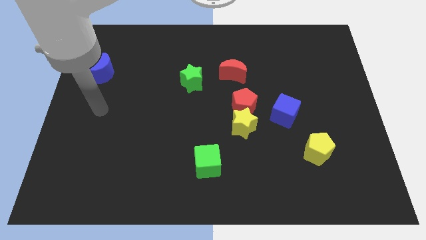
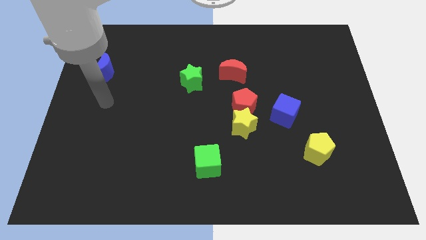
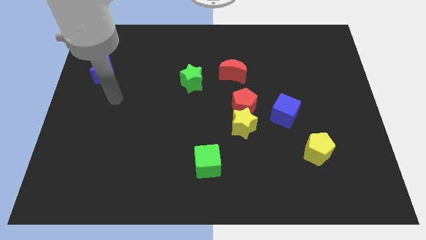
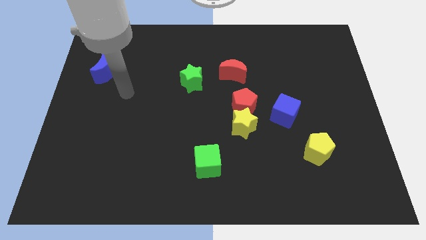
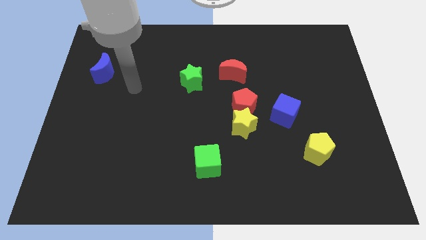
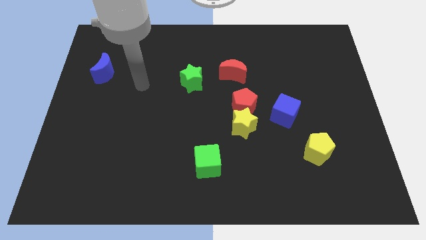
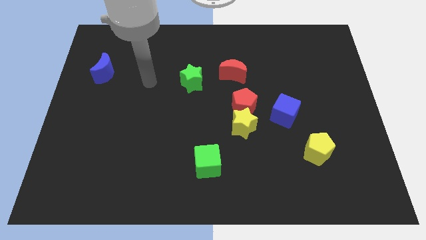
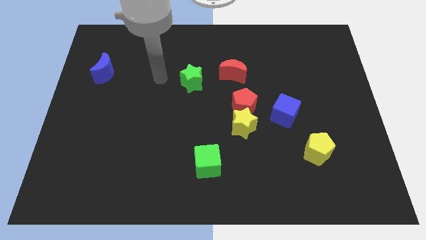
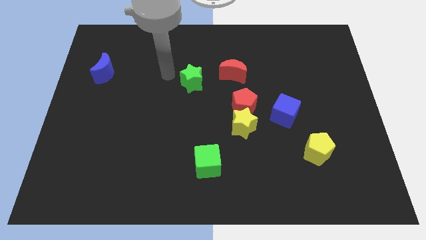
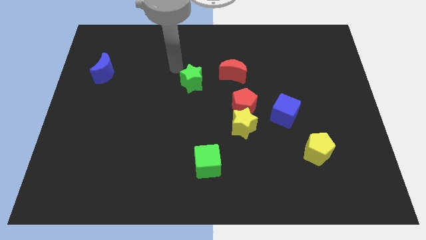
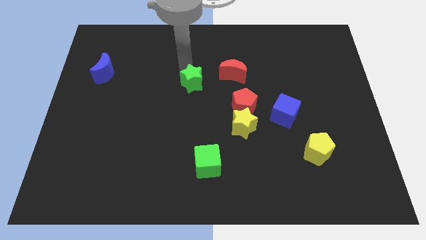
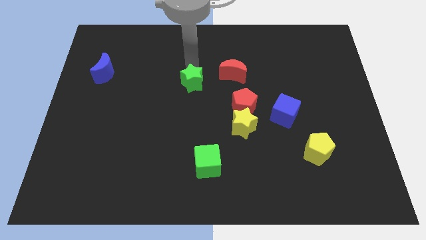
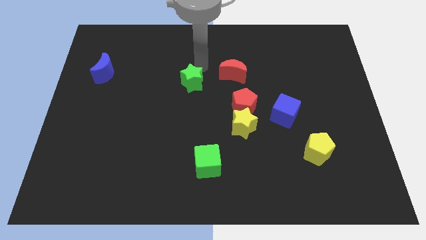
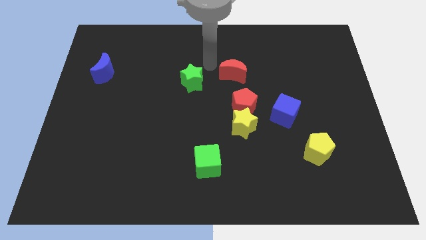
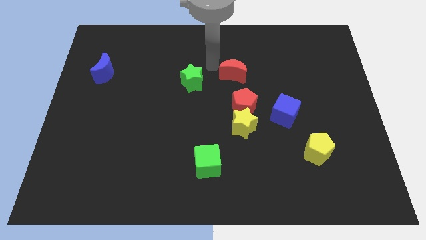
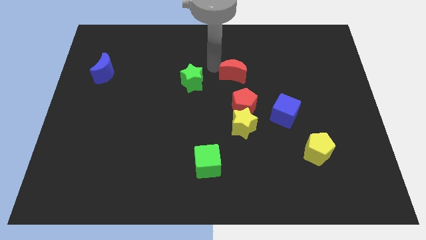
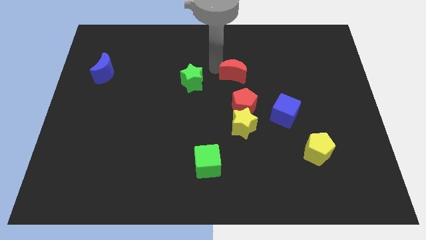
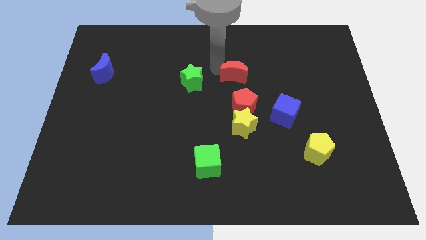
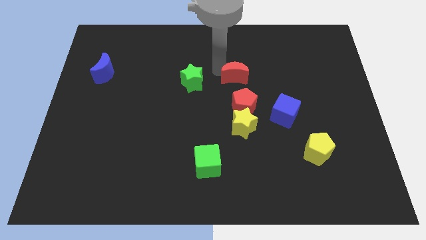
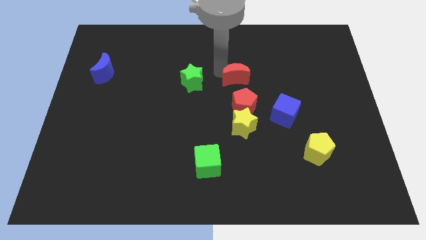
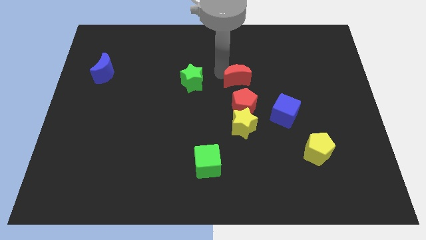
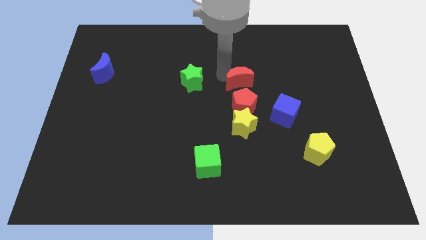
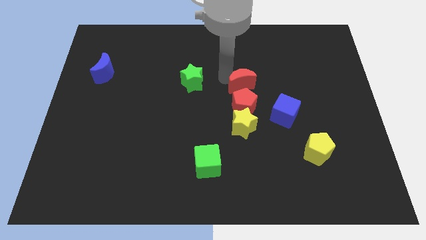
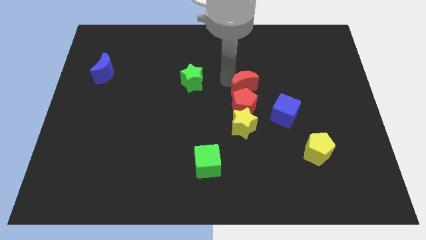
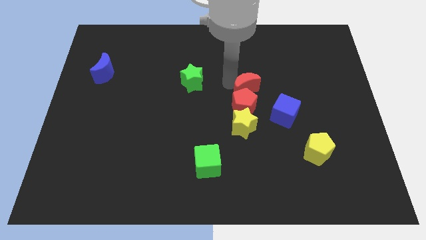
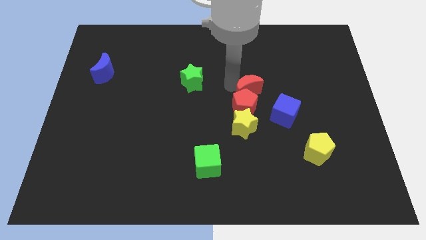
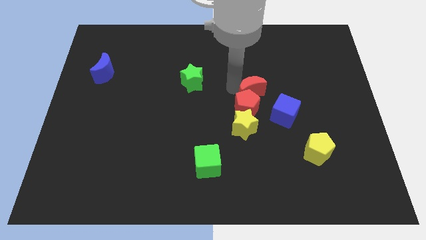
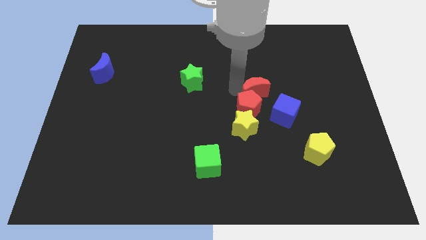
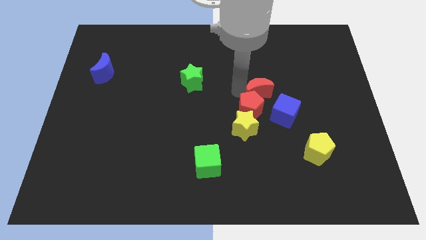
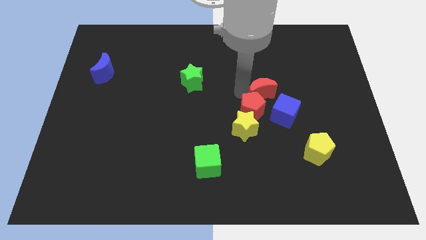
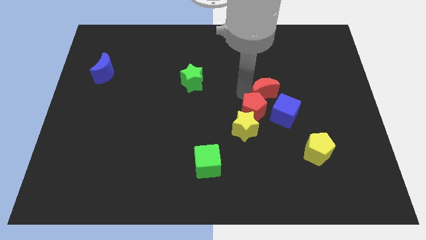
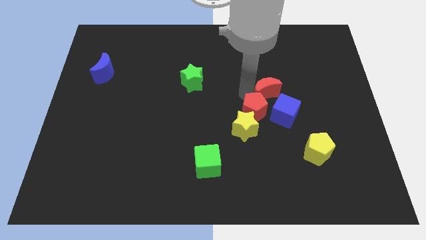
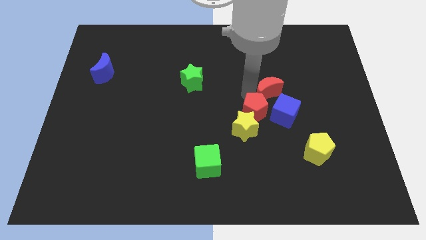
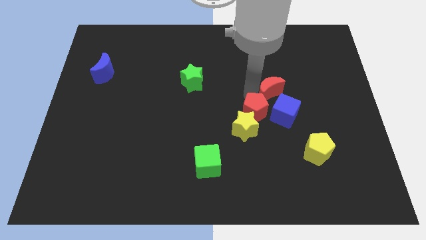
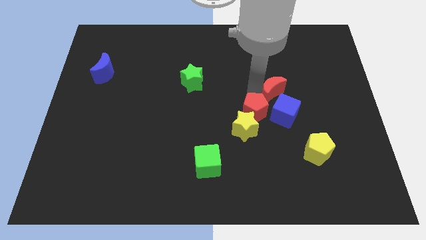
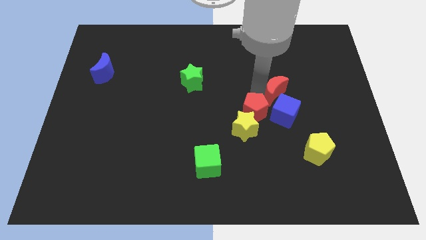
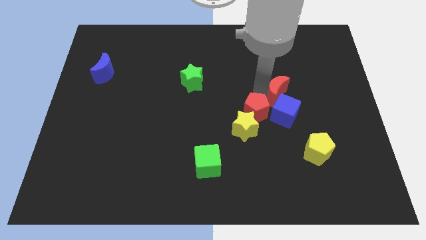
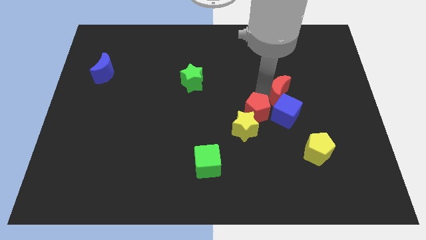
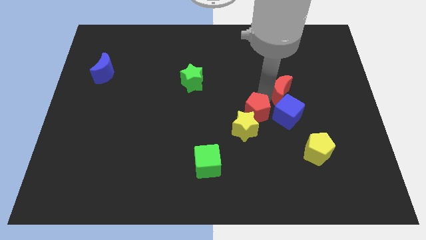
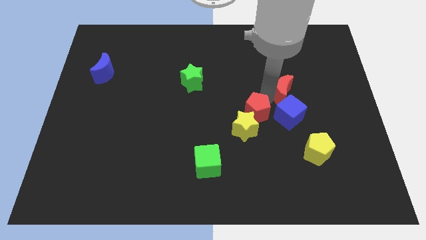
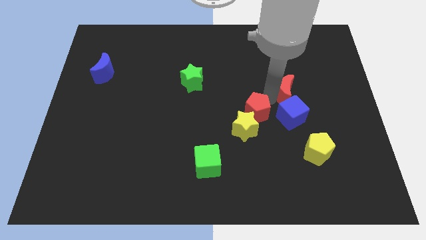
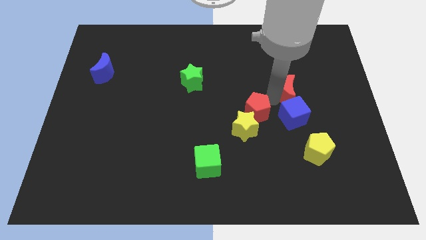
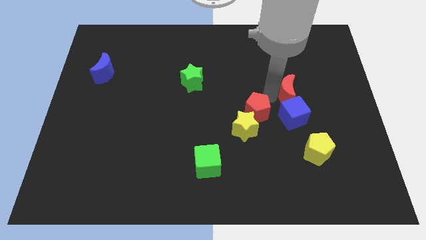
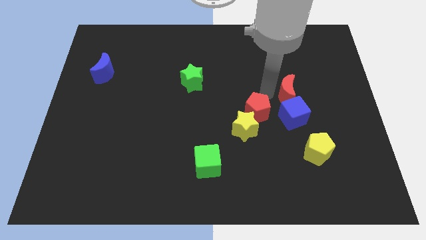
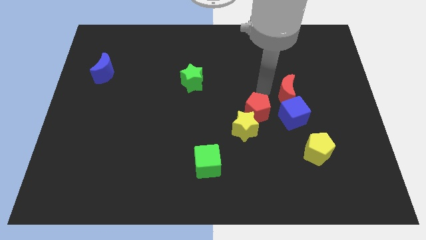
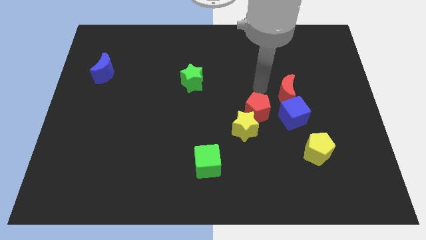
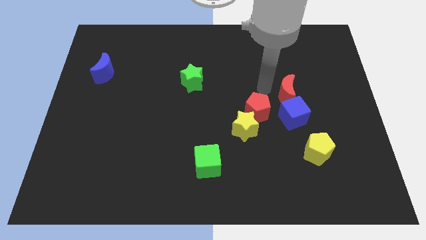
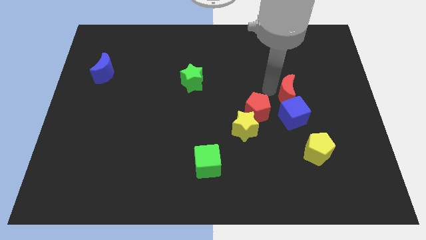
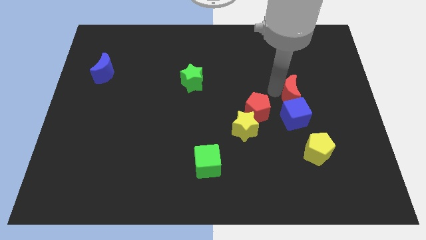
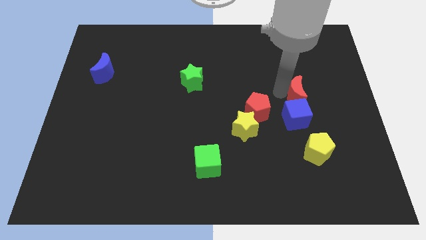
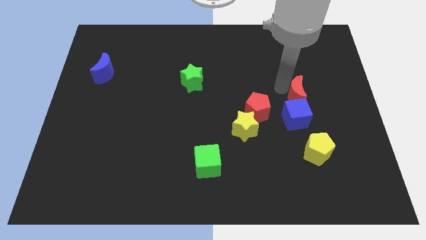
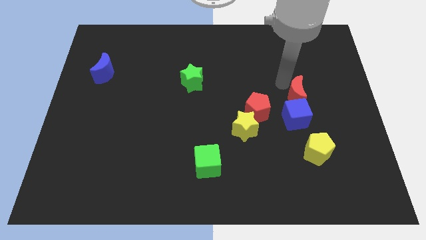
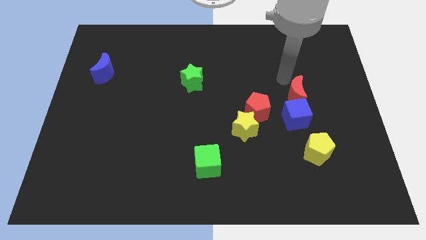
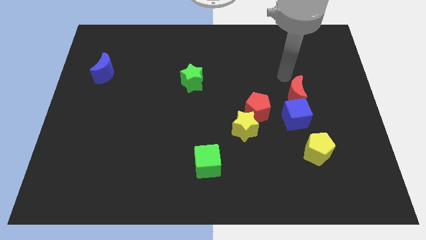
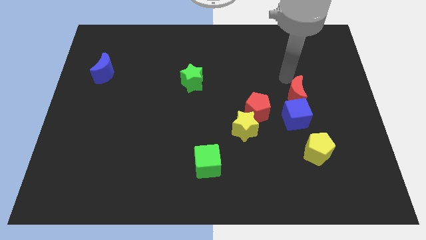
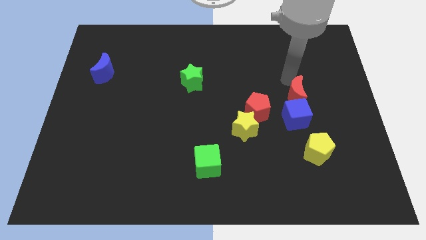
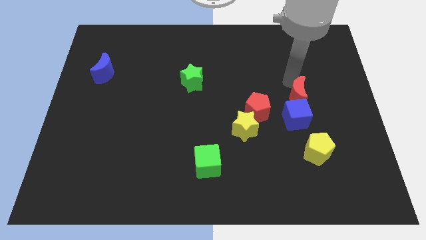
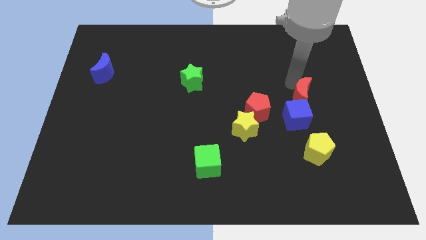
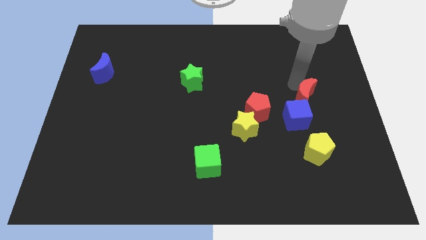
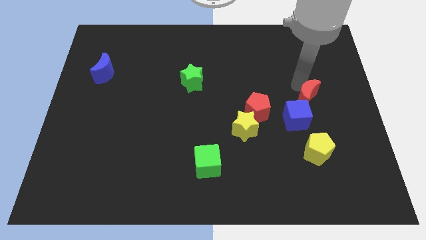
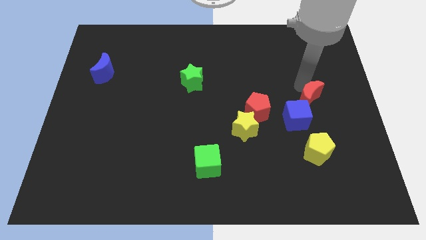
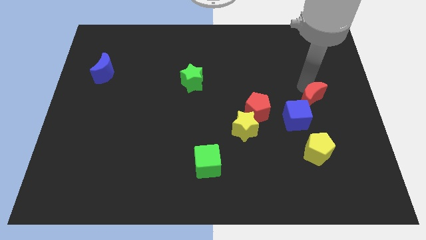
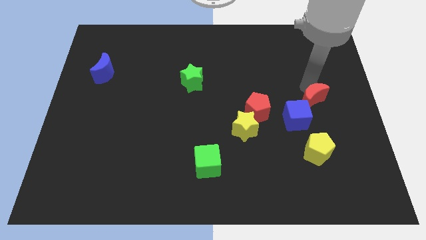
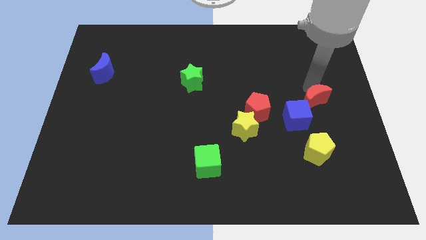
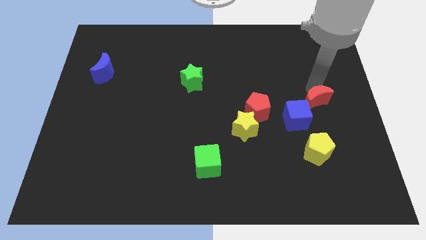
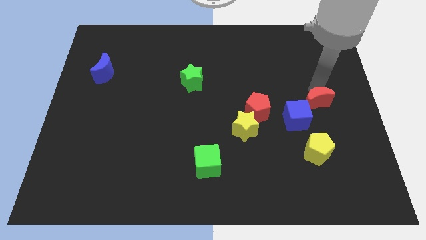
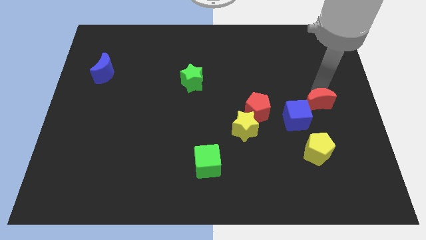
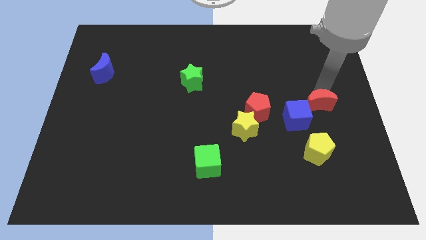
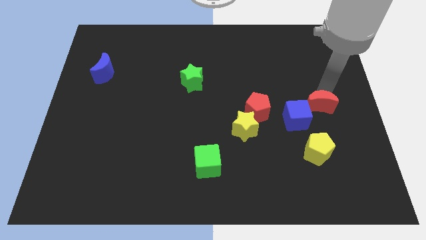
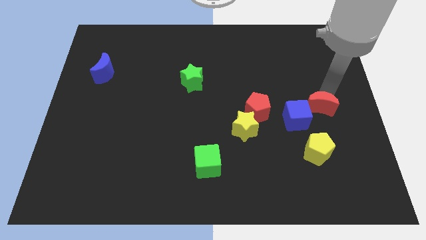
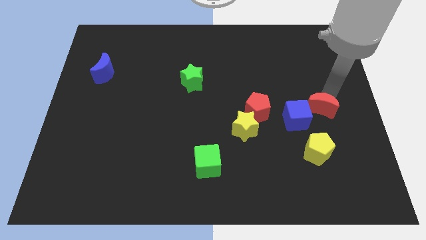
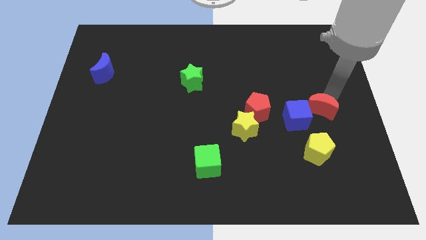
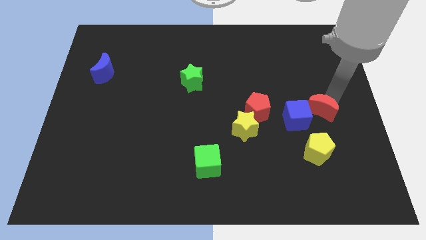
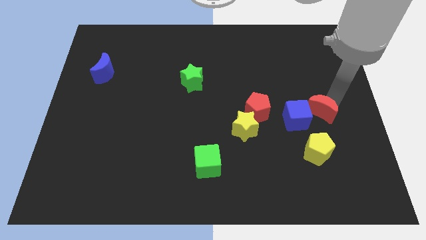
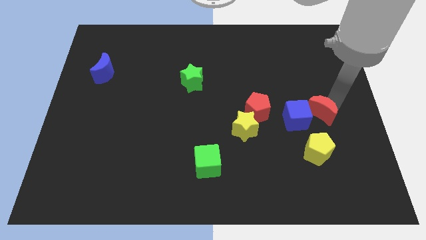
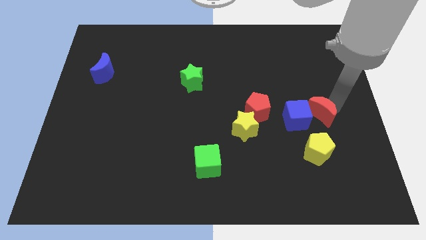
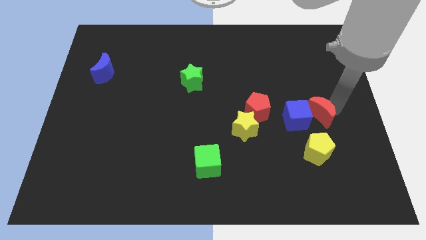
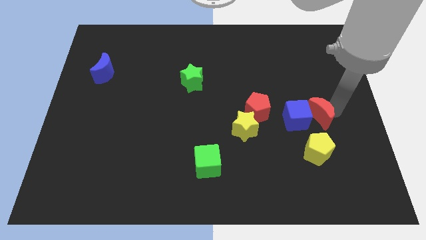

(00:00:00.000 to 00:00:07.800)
put the red moon to the bottom right of the blue cube

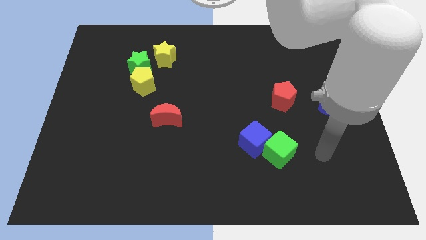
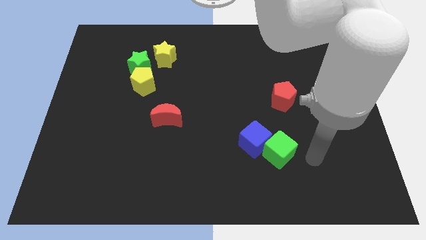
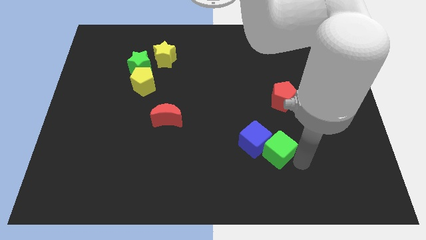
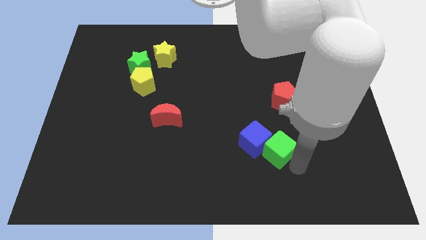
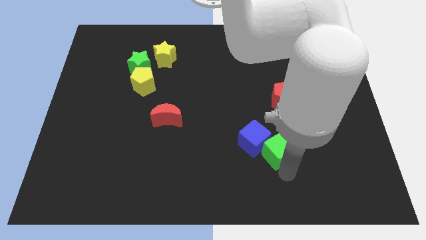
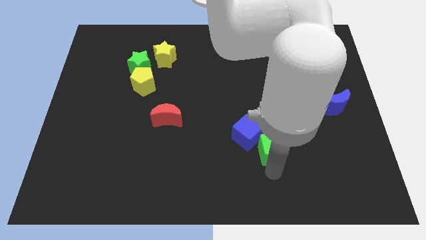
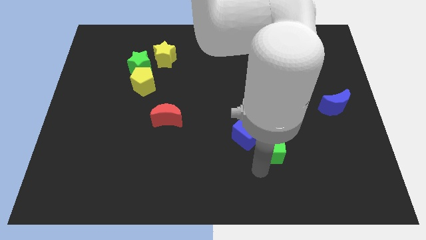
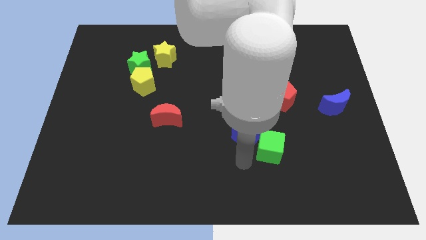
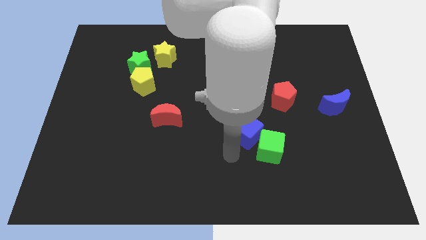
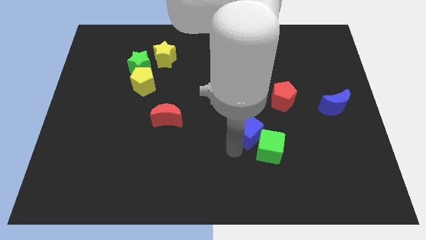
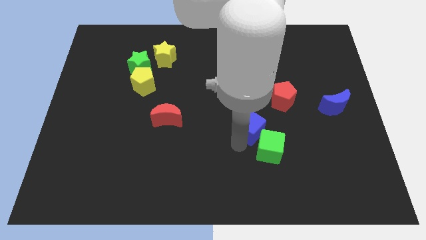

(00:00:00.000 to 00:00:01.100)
slide the blue cube to the bottom left side of the red pentagon
